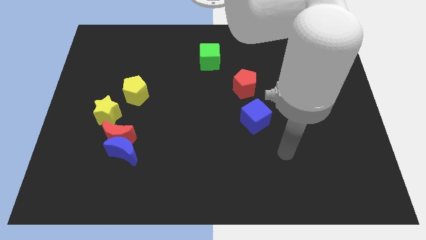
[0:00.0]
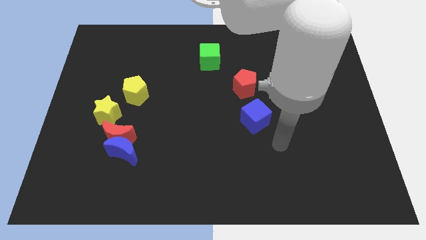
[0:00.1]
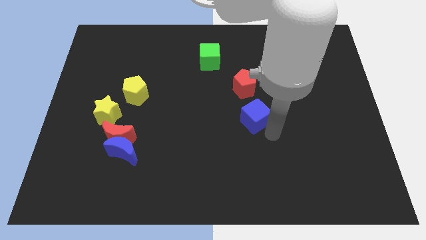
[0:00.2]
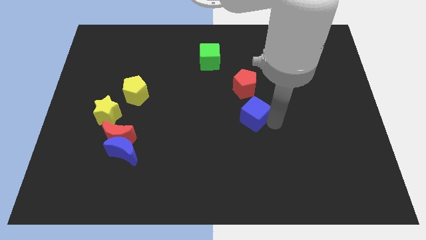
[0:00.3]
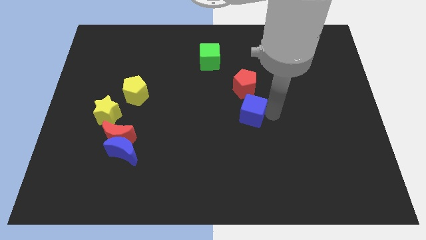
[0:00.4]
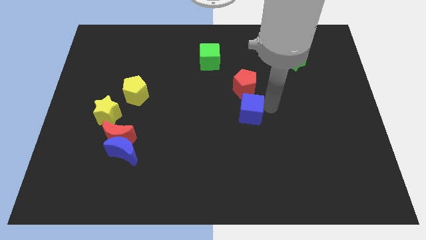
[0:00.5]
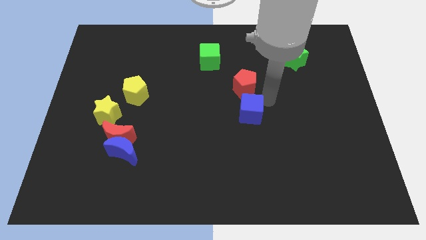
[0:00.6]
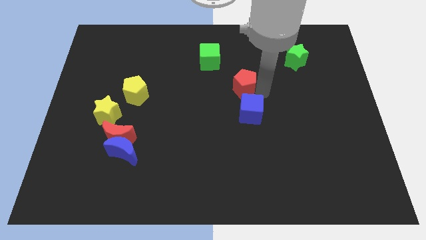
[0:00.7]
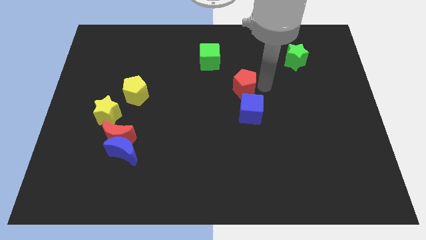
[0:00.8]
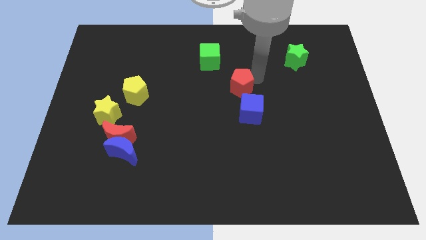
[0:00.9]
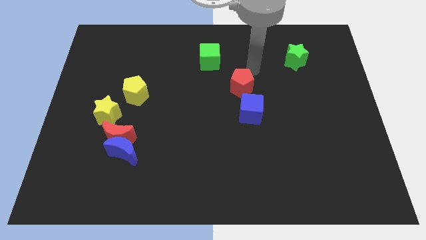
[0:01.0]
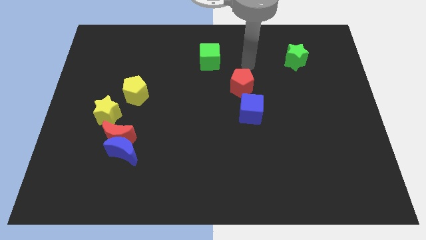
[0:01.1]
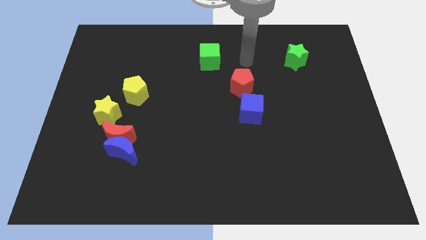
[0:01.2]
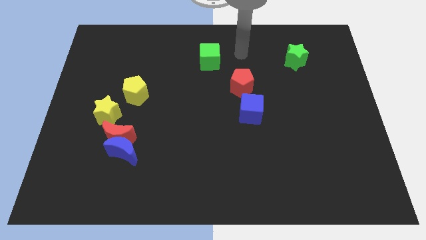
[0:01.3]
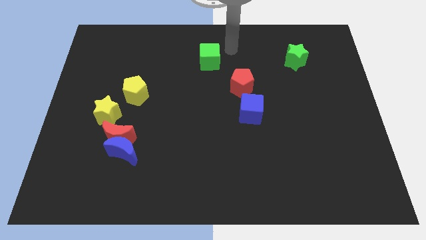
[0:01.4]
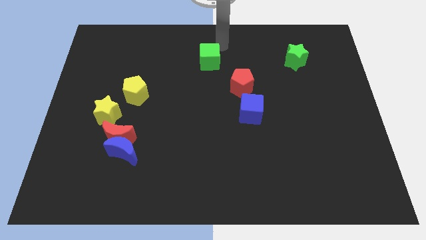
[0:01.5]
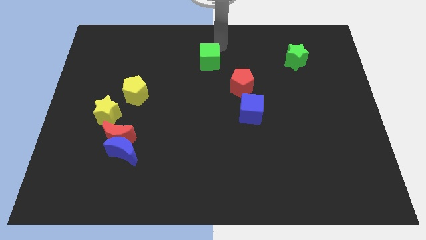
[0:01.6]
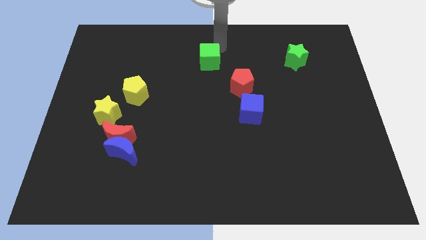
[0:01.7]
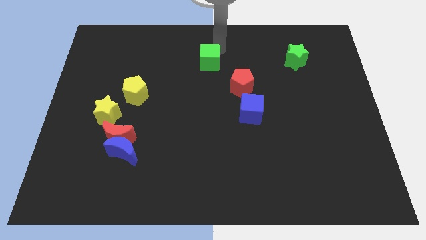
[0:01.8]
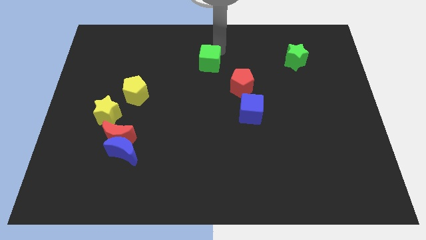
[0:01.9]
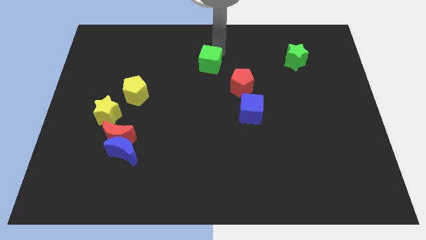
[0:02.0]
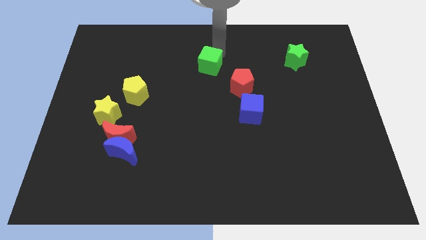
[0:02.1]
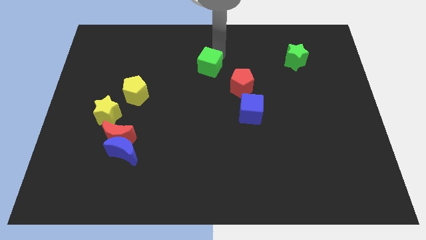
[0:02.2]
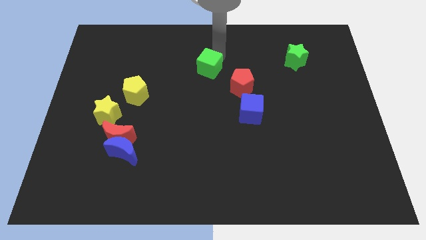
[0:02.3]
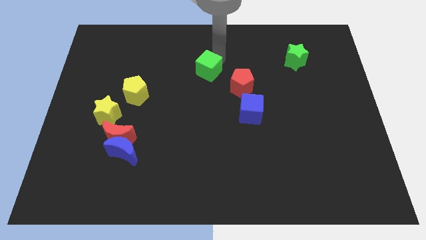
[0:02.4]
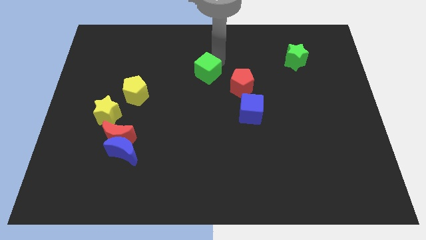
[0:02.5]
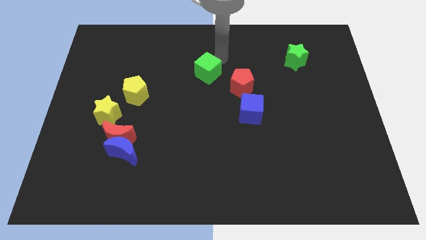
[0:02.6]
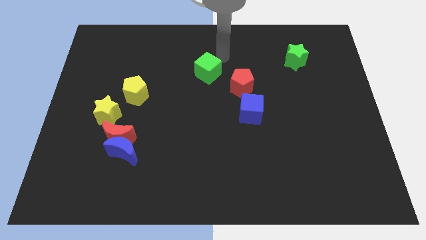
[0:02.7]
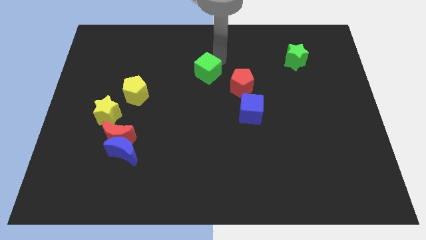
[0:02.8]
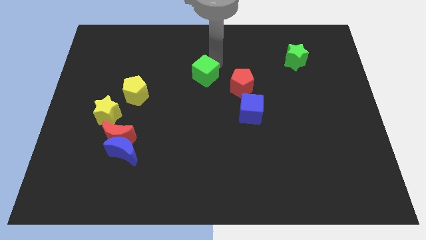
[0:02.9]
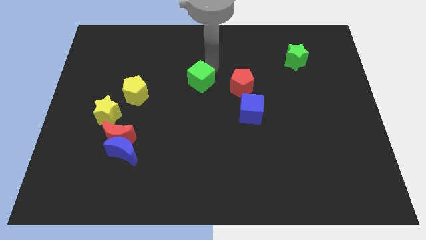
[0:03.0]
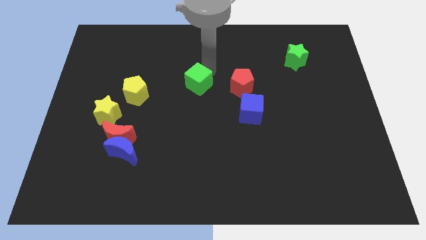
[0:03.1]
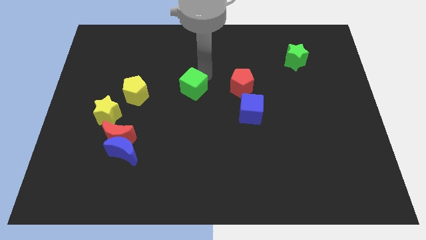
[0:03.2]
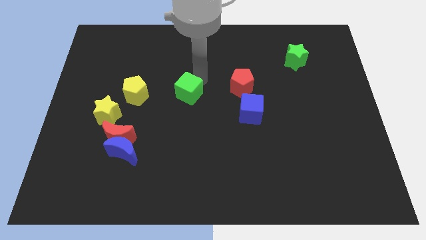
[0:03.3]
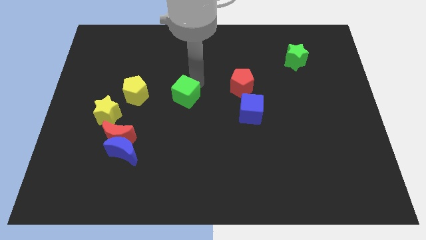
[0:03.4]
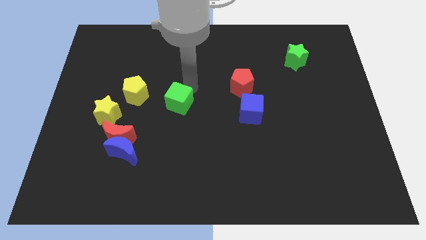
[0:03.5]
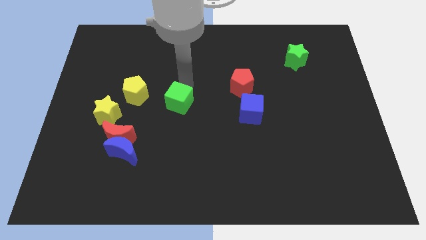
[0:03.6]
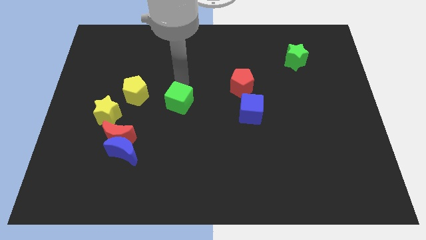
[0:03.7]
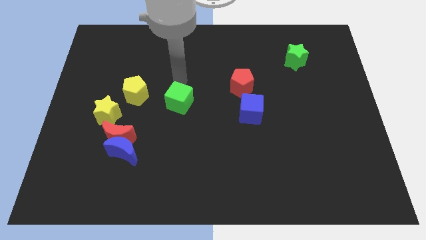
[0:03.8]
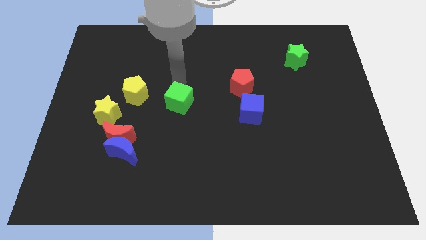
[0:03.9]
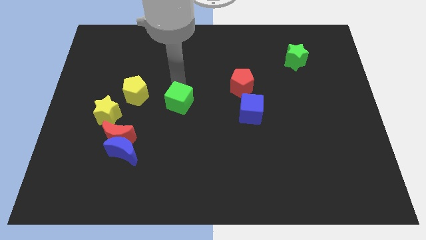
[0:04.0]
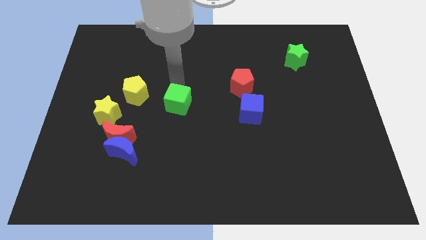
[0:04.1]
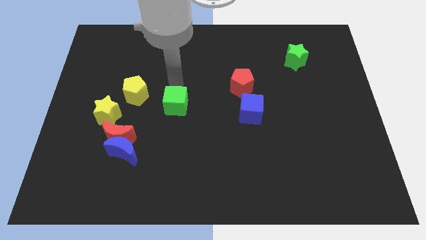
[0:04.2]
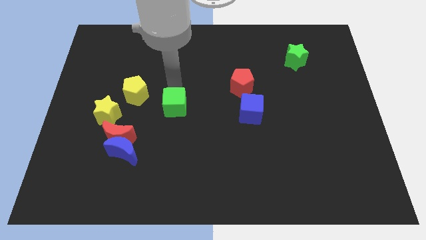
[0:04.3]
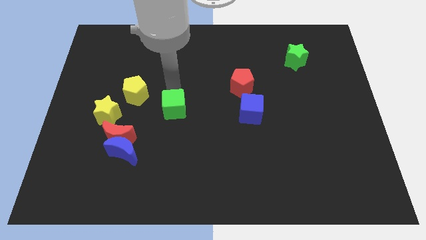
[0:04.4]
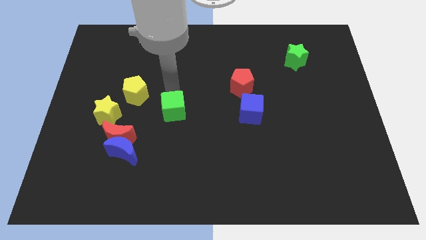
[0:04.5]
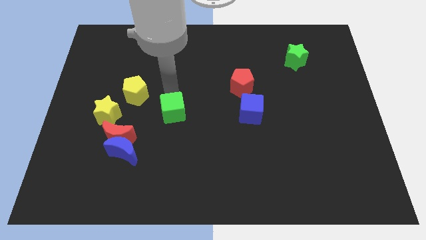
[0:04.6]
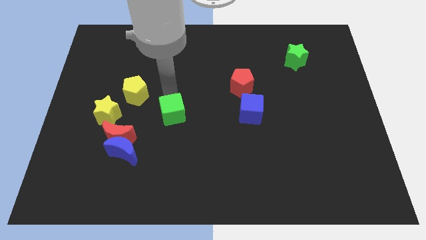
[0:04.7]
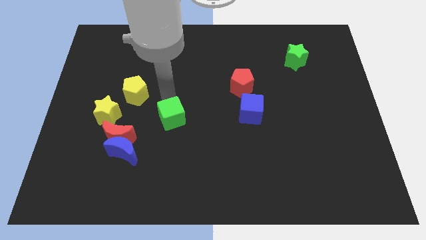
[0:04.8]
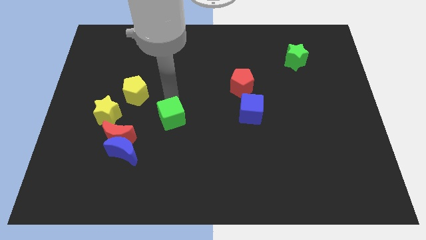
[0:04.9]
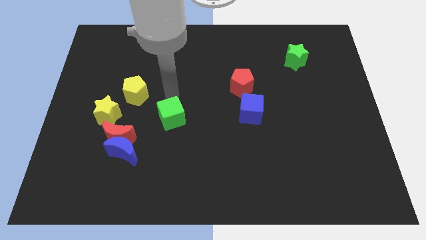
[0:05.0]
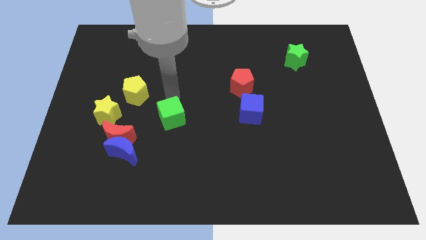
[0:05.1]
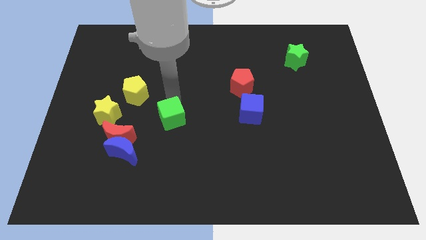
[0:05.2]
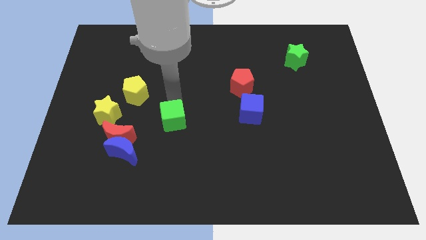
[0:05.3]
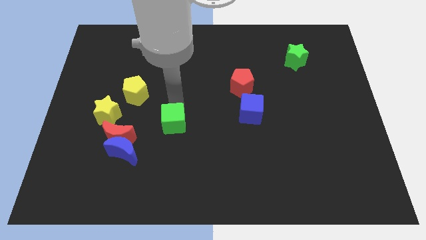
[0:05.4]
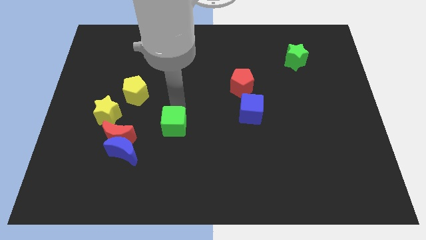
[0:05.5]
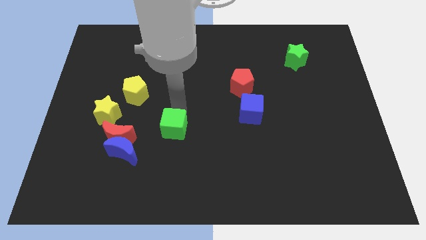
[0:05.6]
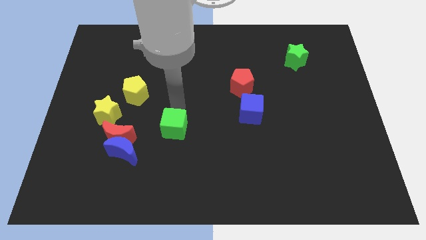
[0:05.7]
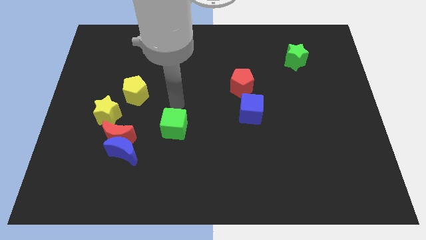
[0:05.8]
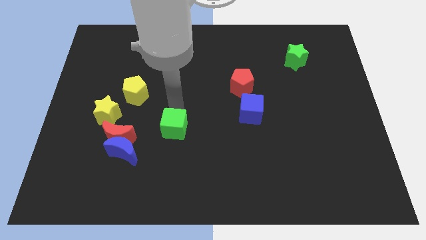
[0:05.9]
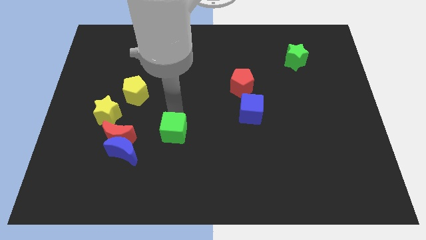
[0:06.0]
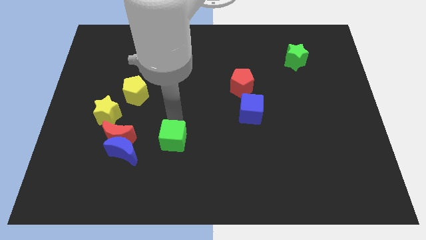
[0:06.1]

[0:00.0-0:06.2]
put the green cube to the right side of the blue moon
